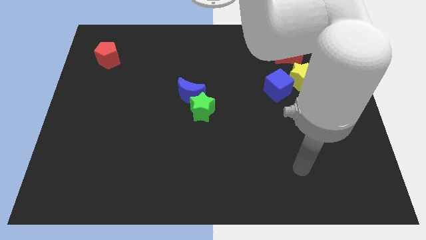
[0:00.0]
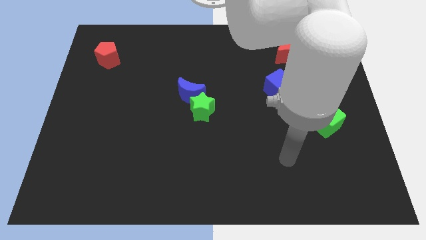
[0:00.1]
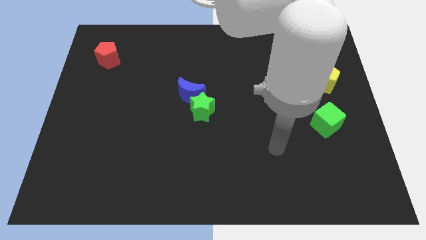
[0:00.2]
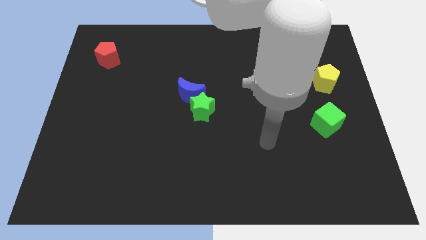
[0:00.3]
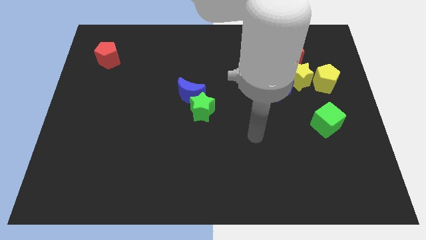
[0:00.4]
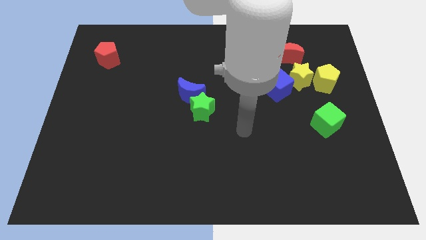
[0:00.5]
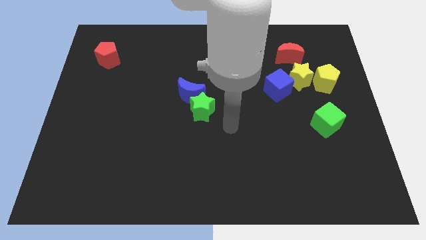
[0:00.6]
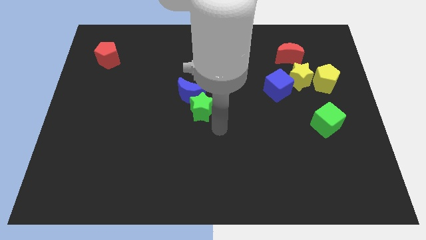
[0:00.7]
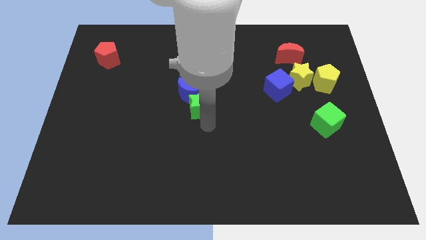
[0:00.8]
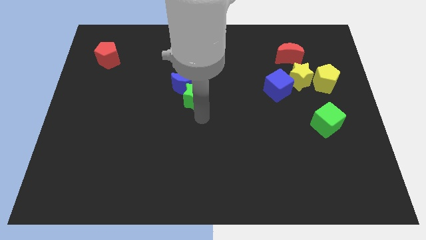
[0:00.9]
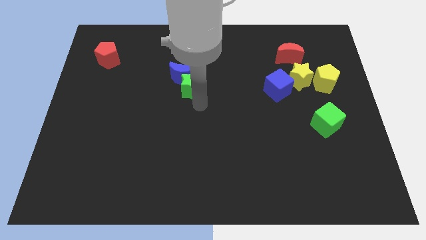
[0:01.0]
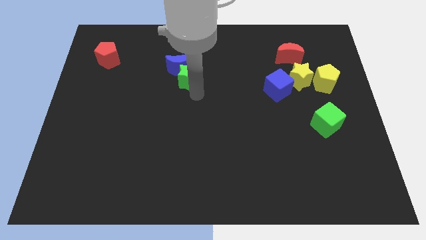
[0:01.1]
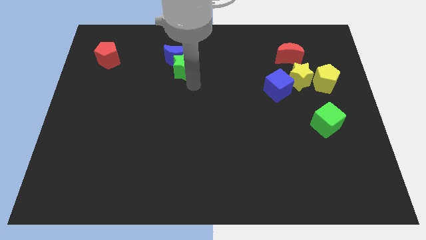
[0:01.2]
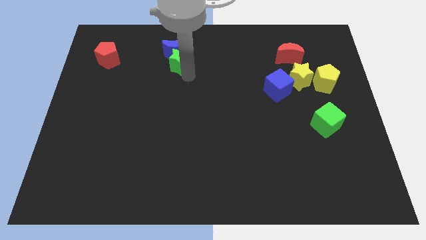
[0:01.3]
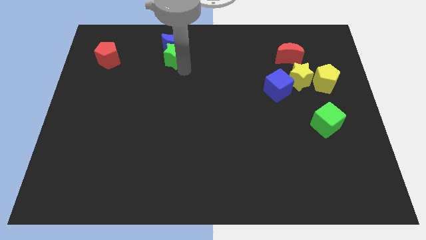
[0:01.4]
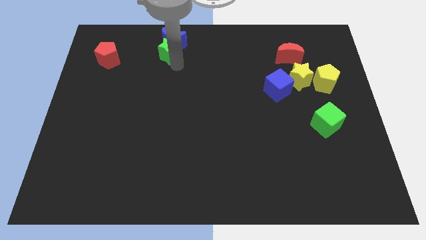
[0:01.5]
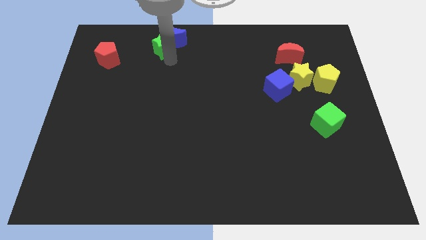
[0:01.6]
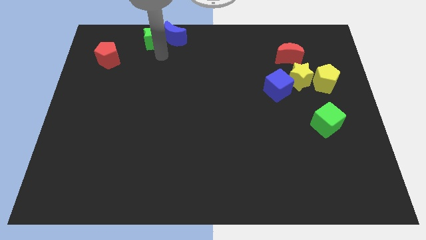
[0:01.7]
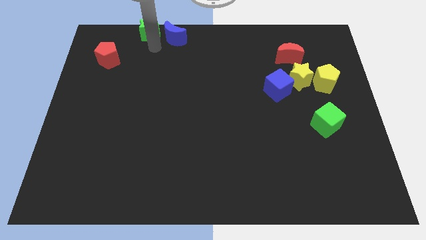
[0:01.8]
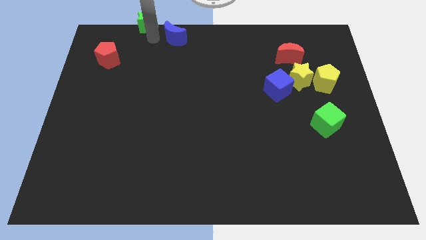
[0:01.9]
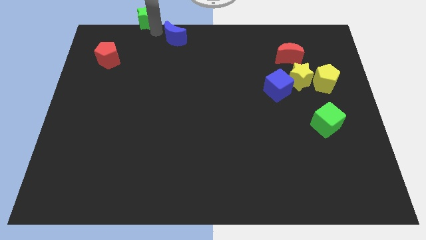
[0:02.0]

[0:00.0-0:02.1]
move the blue moon away from the green star

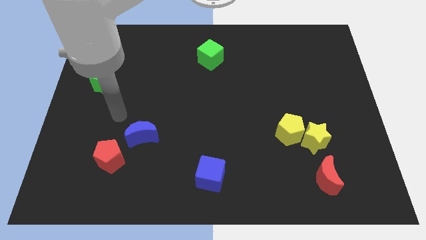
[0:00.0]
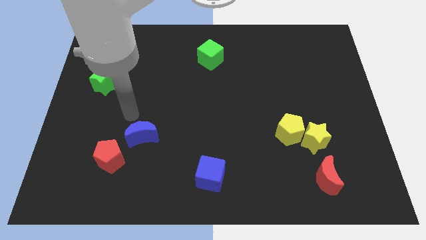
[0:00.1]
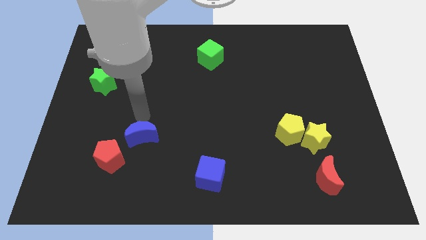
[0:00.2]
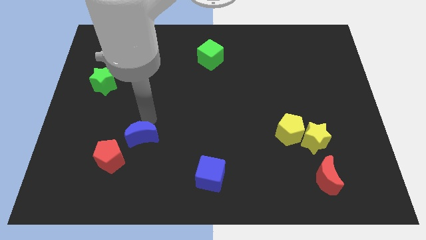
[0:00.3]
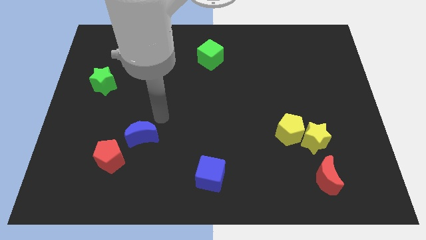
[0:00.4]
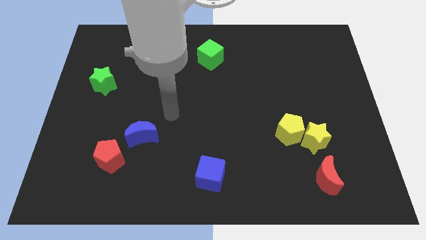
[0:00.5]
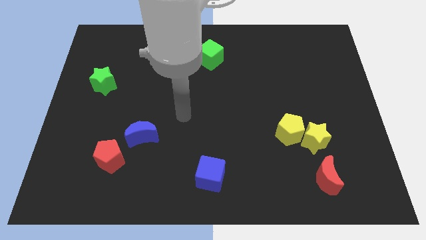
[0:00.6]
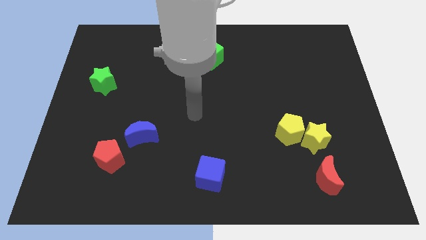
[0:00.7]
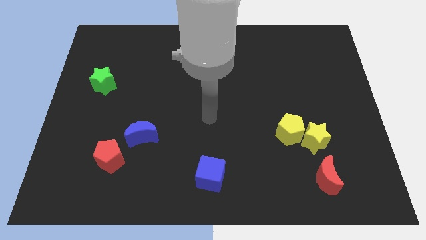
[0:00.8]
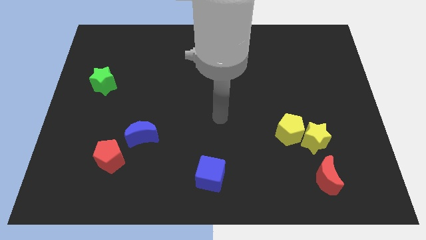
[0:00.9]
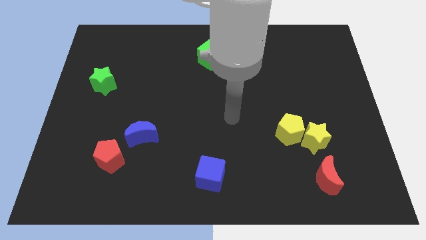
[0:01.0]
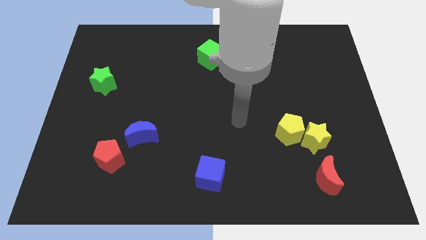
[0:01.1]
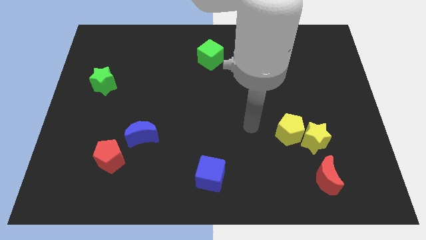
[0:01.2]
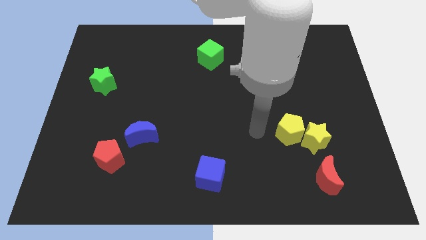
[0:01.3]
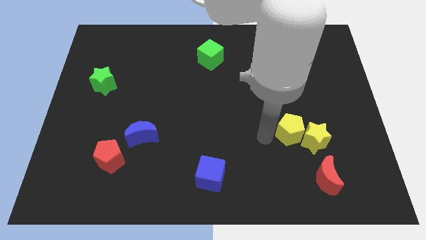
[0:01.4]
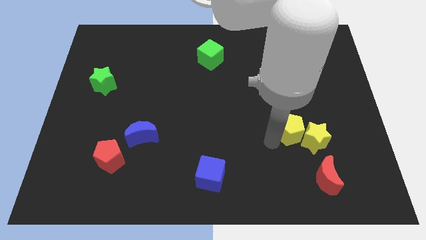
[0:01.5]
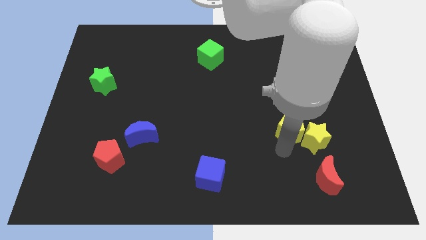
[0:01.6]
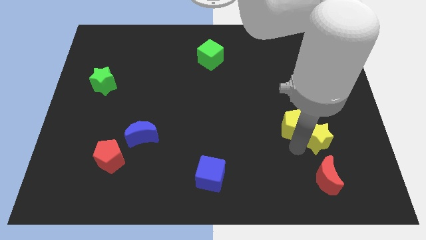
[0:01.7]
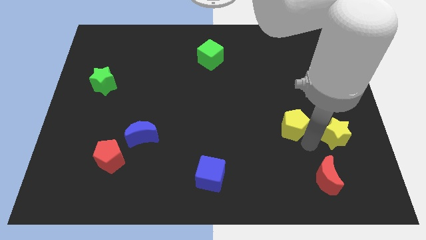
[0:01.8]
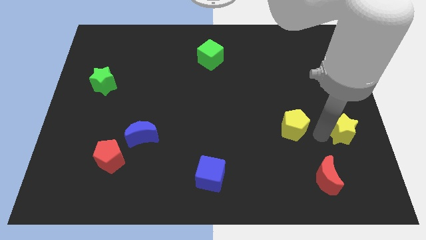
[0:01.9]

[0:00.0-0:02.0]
pull the yellow pentagon apart from the yellow star

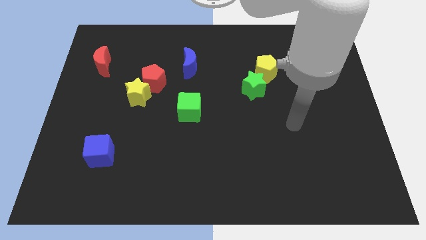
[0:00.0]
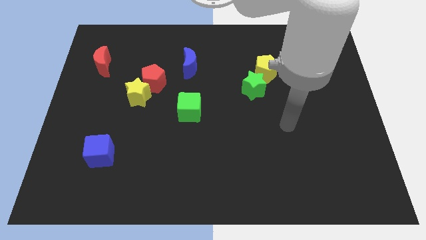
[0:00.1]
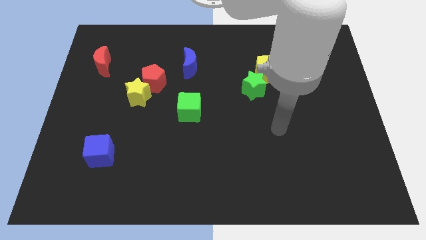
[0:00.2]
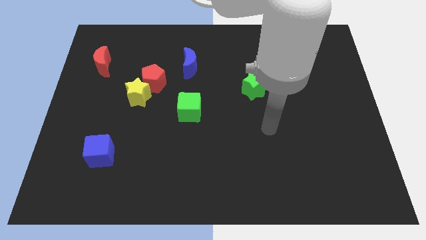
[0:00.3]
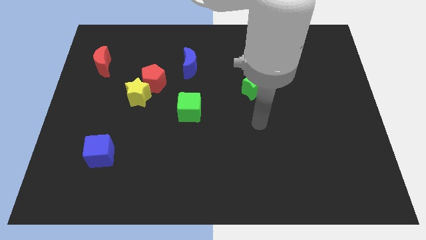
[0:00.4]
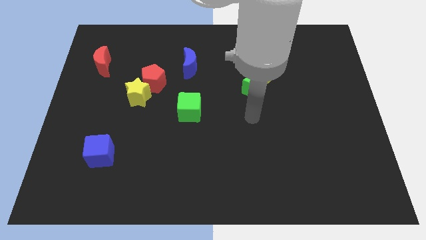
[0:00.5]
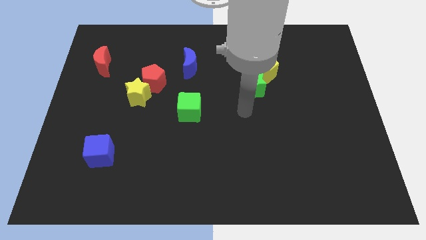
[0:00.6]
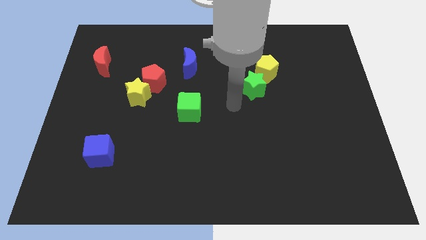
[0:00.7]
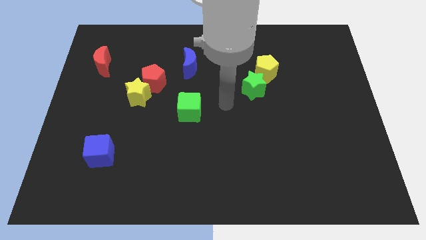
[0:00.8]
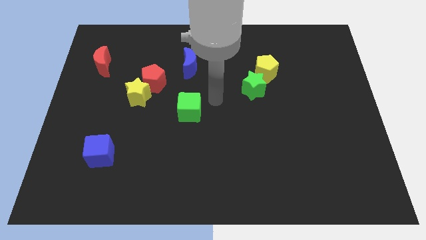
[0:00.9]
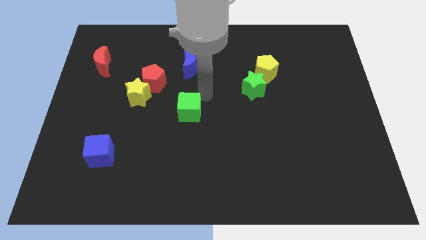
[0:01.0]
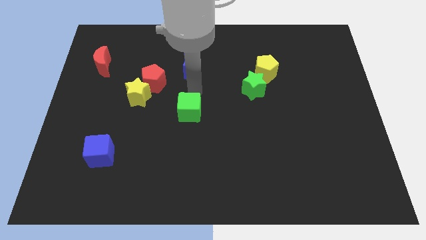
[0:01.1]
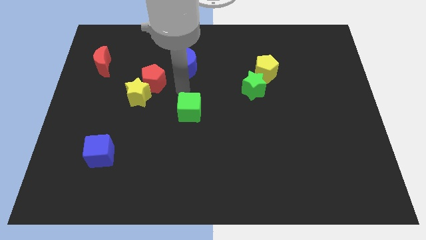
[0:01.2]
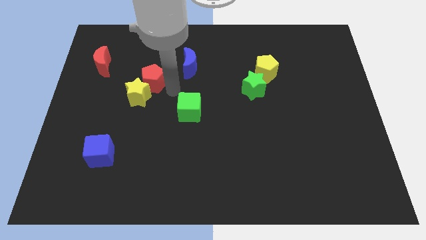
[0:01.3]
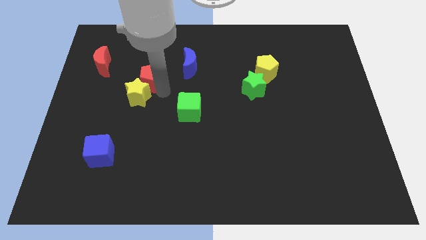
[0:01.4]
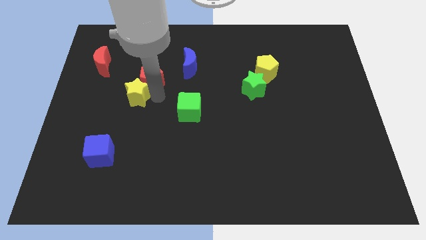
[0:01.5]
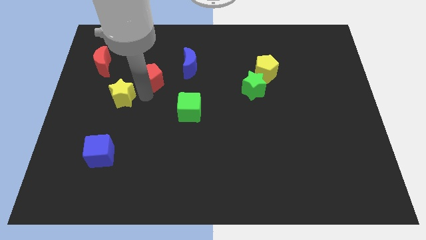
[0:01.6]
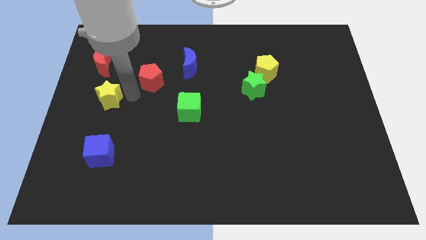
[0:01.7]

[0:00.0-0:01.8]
pull the red pentagon apart from the yellow star

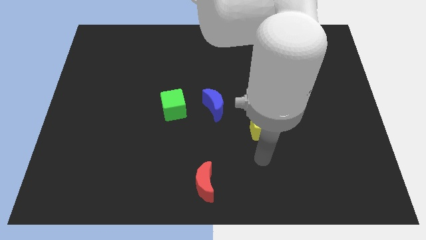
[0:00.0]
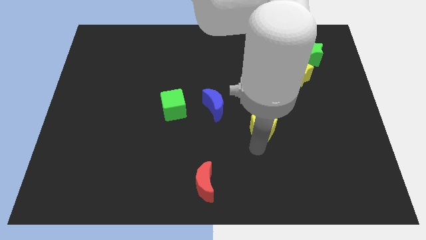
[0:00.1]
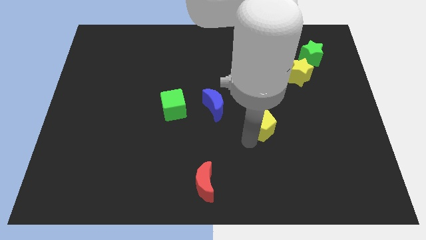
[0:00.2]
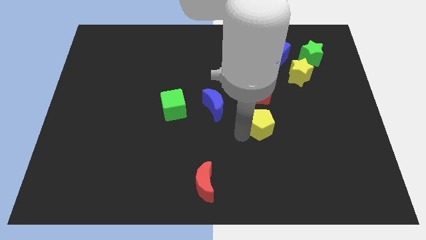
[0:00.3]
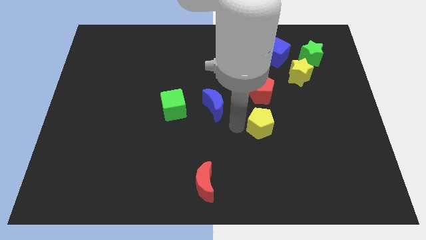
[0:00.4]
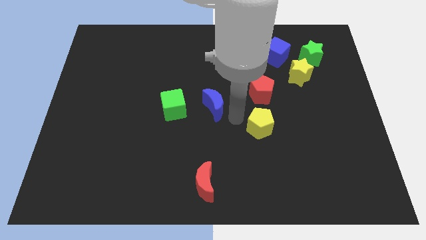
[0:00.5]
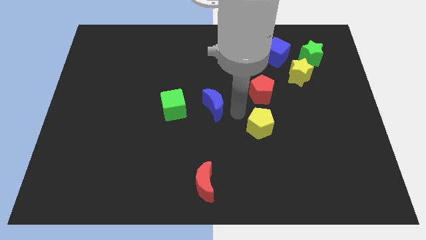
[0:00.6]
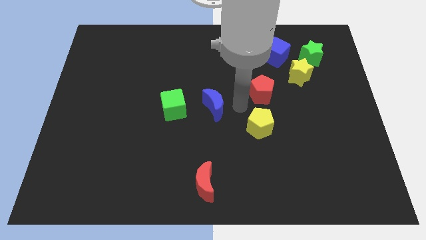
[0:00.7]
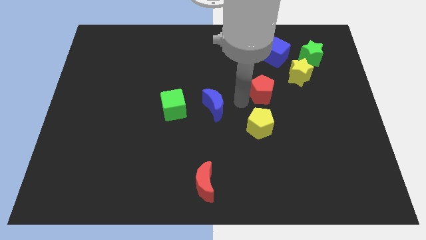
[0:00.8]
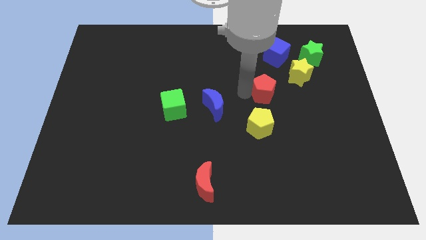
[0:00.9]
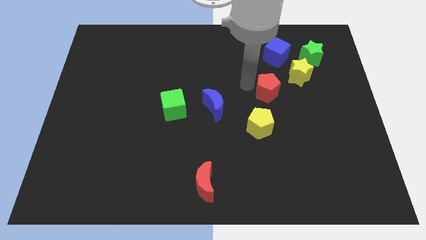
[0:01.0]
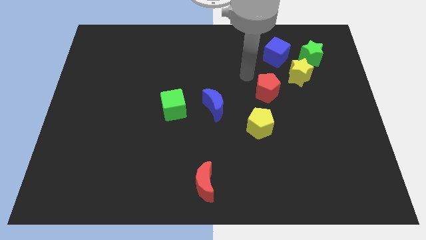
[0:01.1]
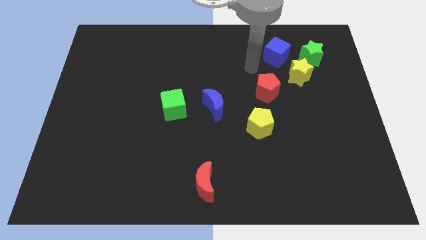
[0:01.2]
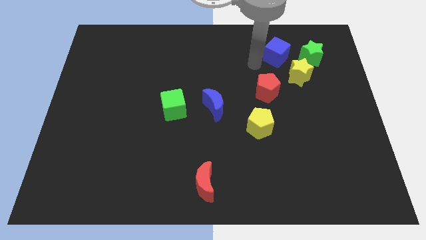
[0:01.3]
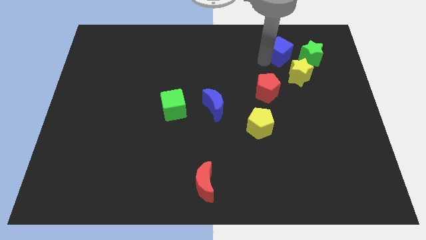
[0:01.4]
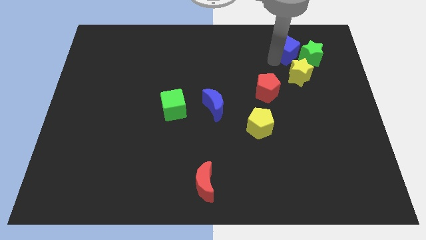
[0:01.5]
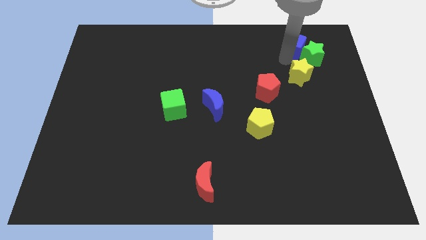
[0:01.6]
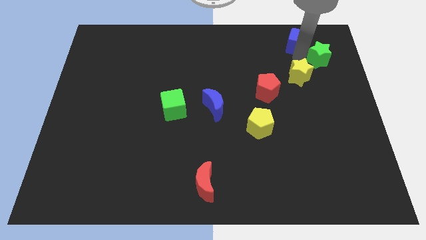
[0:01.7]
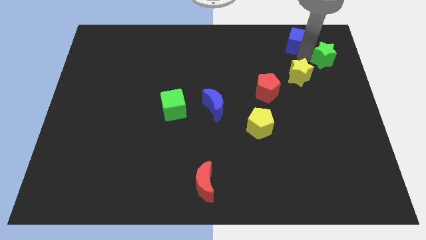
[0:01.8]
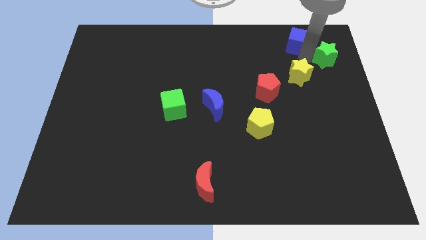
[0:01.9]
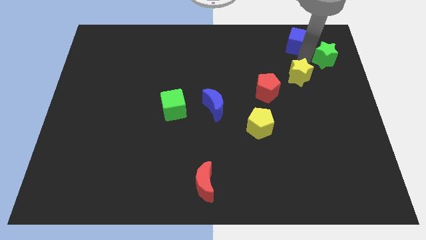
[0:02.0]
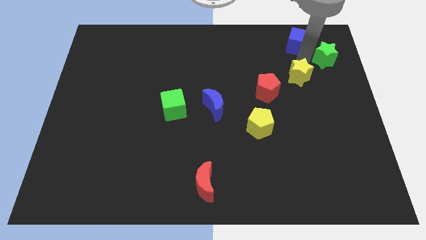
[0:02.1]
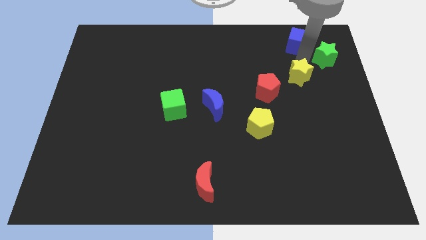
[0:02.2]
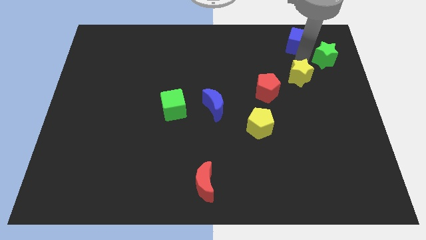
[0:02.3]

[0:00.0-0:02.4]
pull the yellow star apart from the green star and blue cube

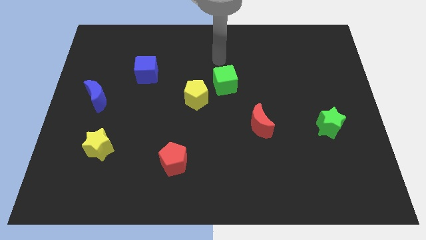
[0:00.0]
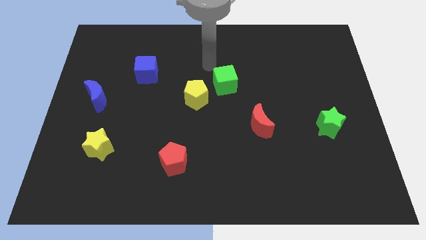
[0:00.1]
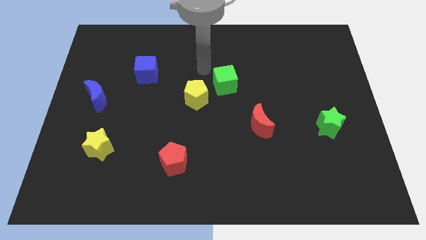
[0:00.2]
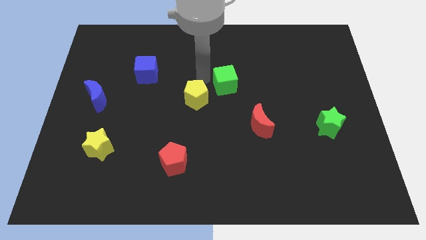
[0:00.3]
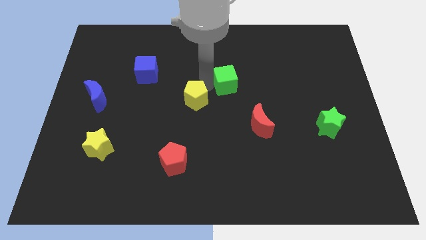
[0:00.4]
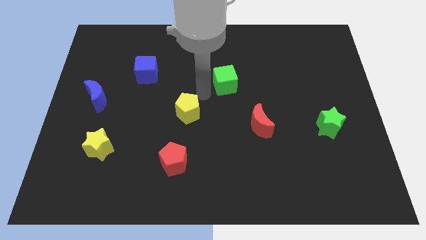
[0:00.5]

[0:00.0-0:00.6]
move the green cube away from the yellow pentagon

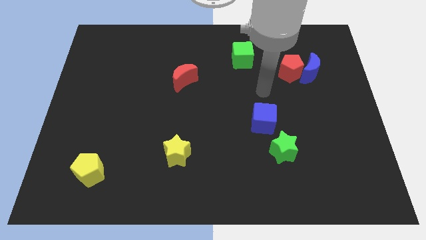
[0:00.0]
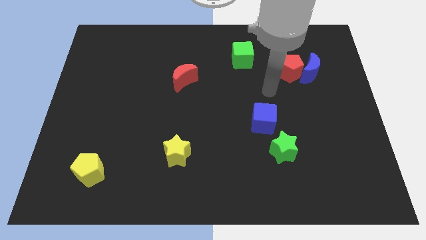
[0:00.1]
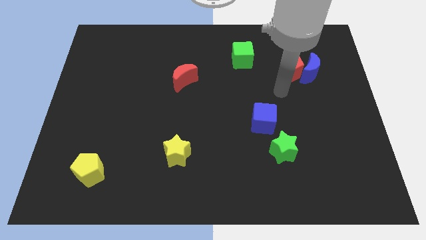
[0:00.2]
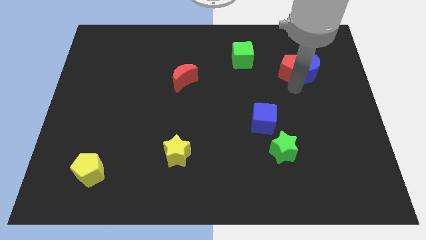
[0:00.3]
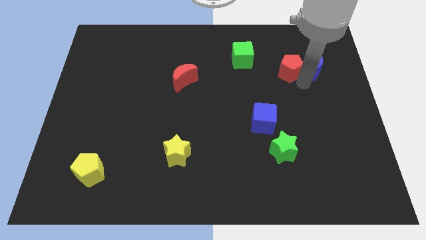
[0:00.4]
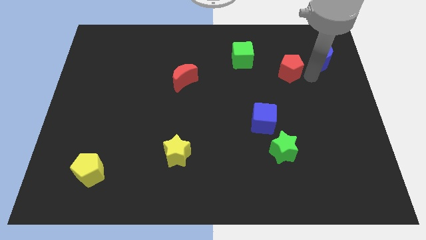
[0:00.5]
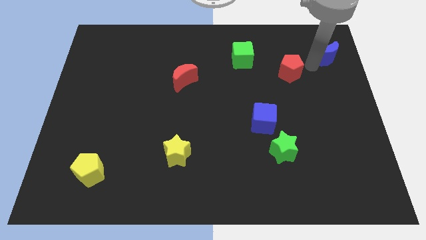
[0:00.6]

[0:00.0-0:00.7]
separate the red pentagon from the blue moon
